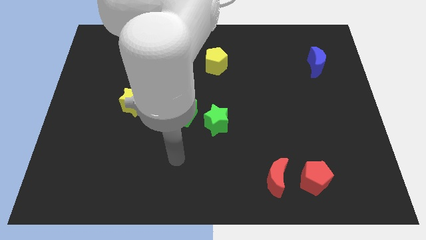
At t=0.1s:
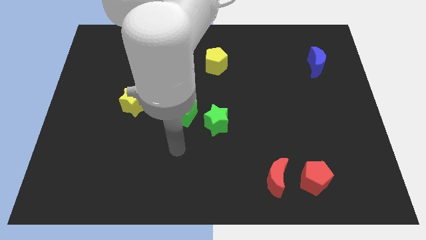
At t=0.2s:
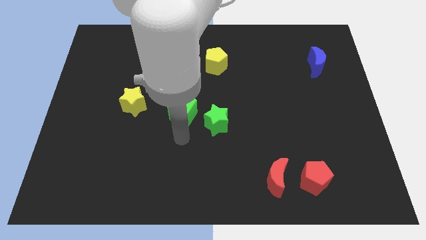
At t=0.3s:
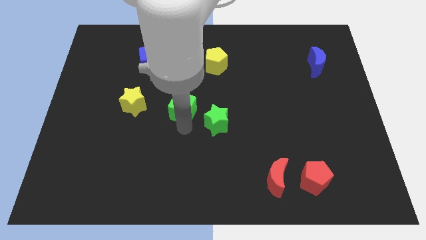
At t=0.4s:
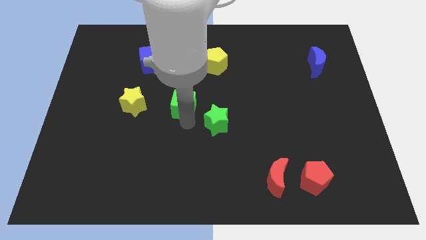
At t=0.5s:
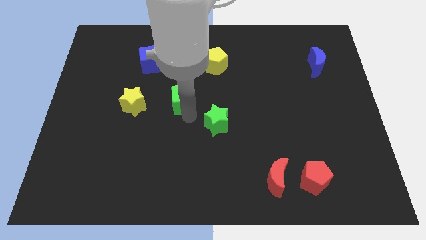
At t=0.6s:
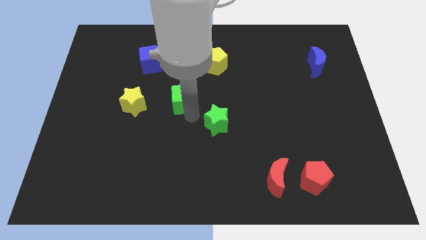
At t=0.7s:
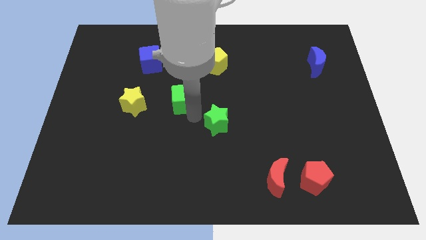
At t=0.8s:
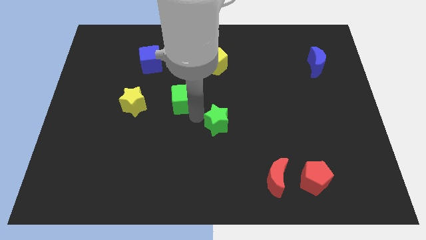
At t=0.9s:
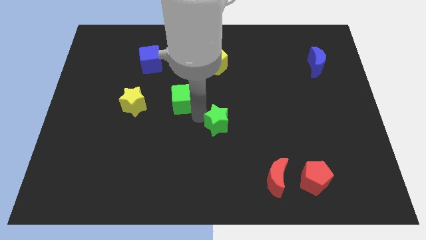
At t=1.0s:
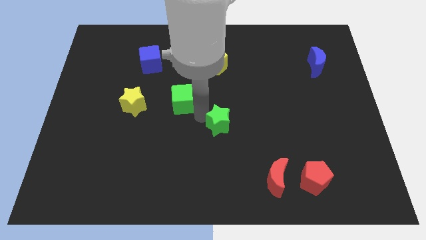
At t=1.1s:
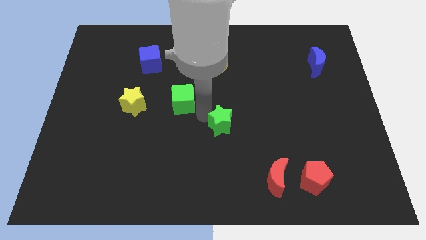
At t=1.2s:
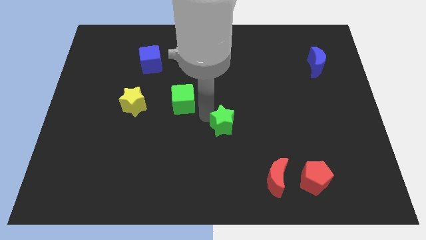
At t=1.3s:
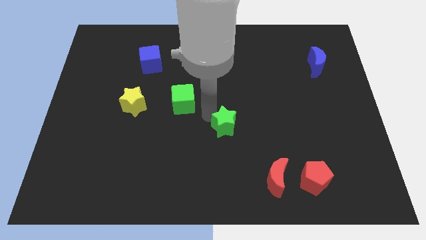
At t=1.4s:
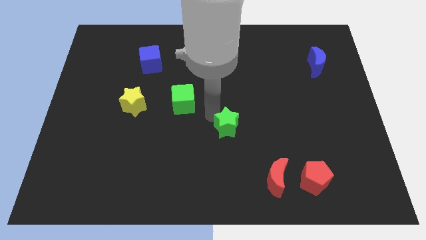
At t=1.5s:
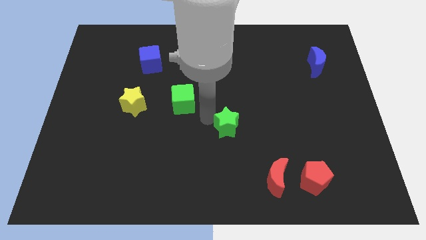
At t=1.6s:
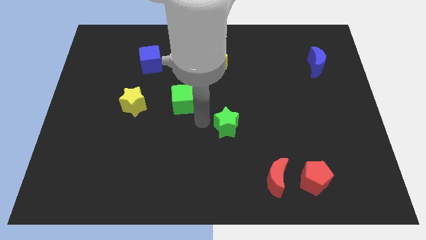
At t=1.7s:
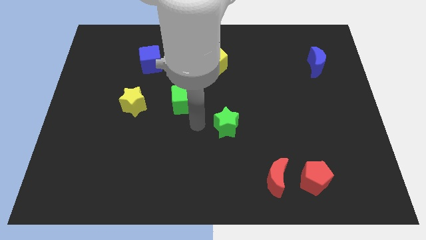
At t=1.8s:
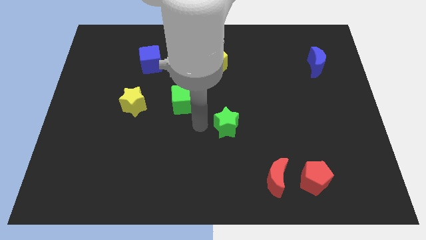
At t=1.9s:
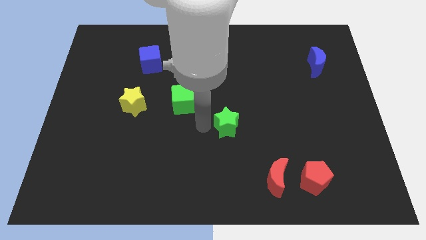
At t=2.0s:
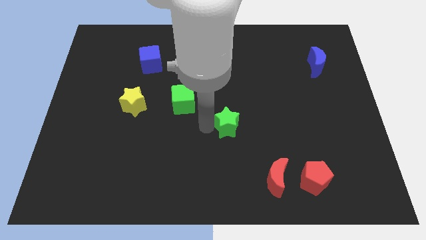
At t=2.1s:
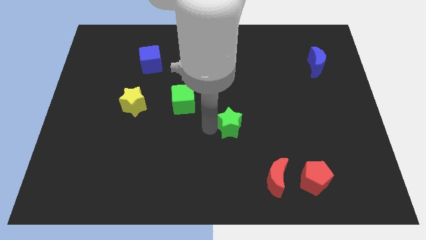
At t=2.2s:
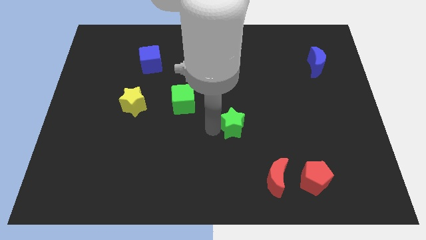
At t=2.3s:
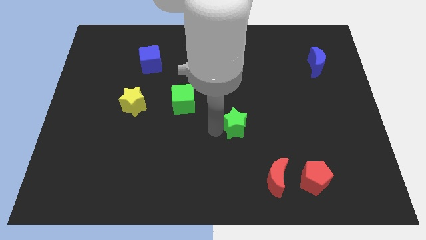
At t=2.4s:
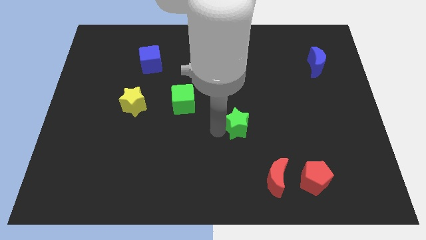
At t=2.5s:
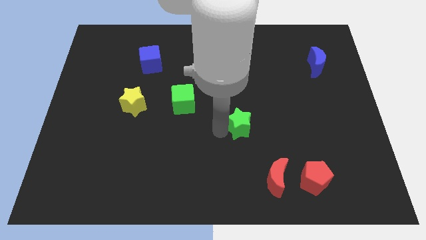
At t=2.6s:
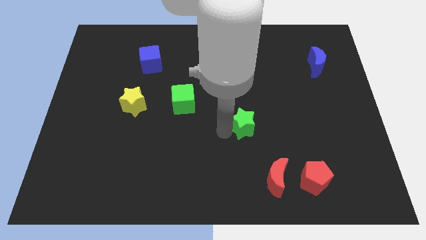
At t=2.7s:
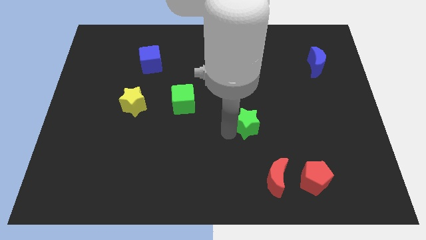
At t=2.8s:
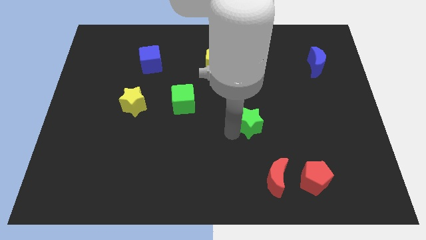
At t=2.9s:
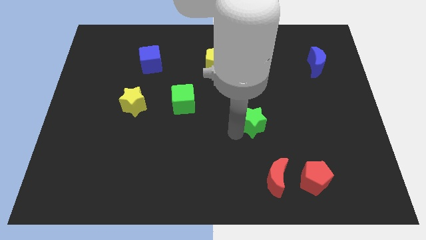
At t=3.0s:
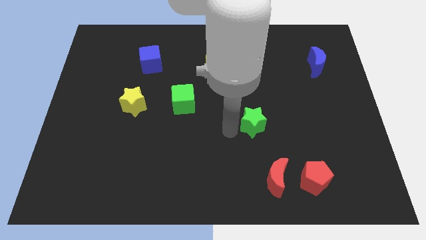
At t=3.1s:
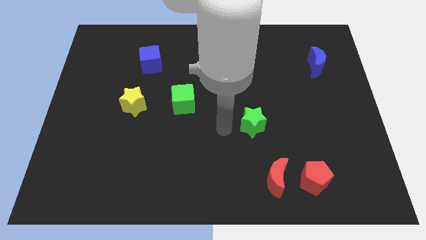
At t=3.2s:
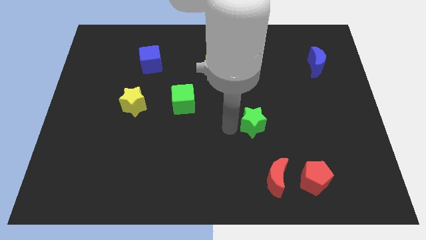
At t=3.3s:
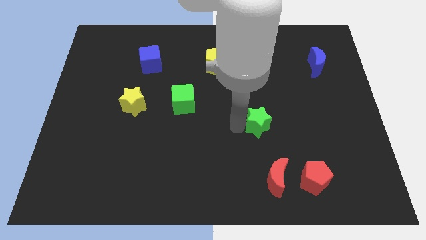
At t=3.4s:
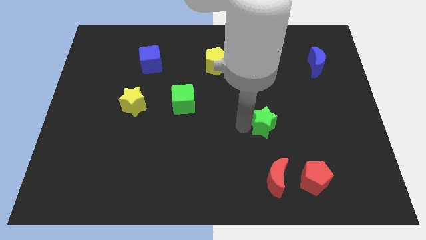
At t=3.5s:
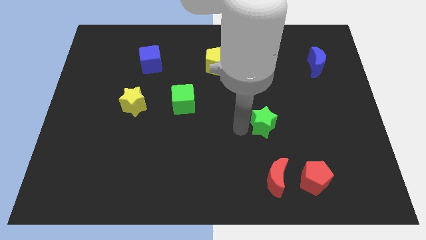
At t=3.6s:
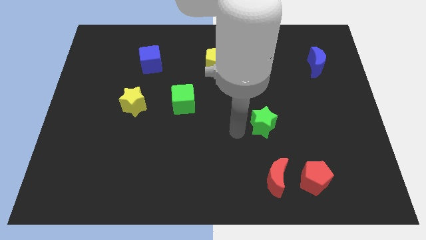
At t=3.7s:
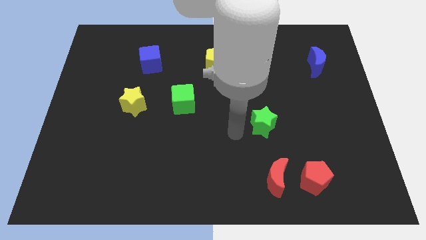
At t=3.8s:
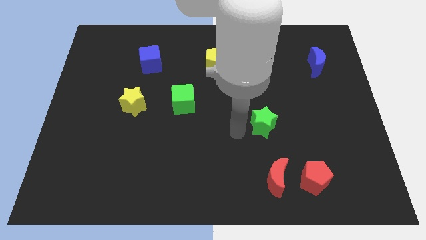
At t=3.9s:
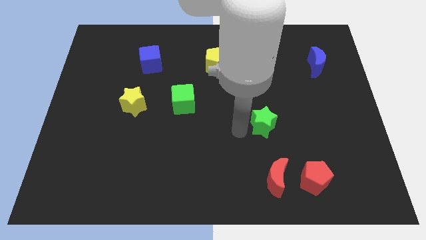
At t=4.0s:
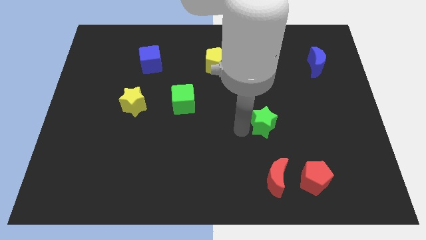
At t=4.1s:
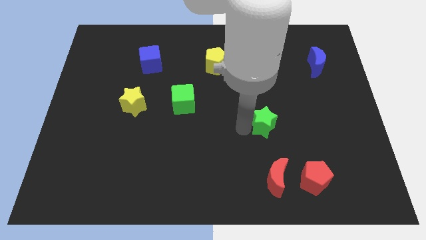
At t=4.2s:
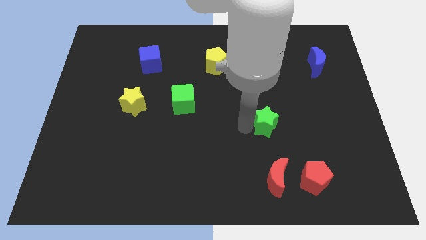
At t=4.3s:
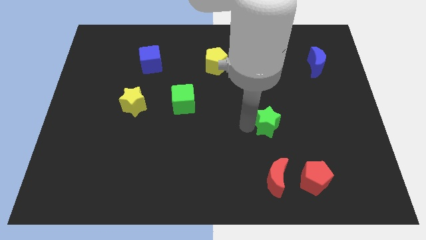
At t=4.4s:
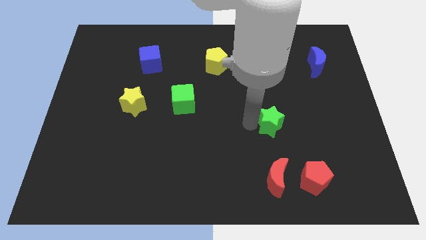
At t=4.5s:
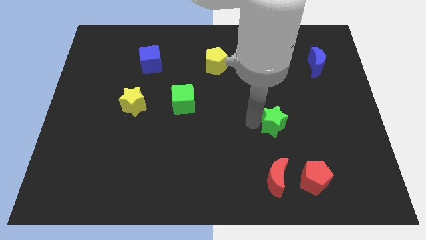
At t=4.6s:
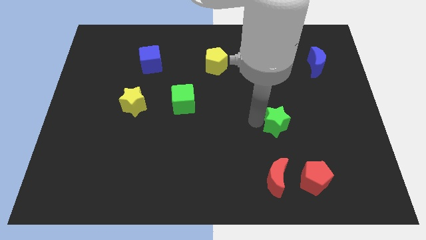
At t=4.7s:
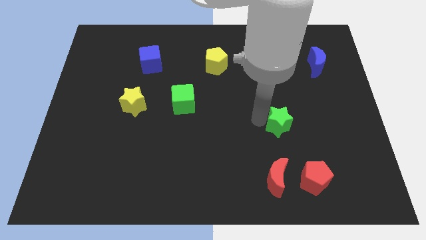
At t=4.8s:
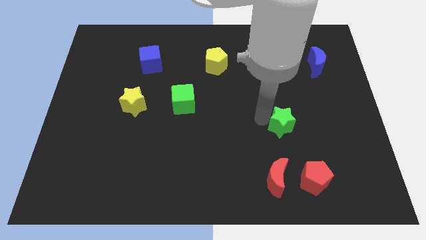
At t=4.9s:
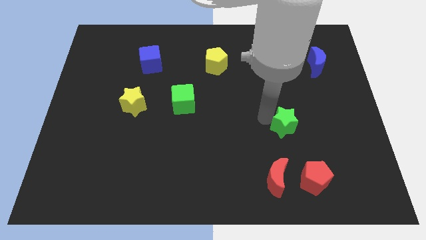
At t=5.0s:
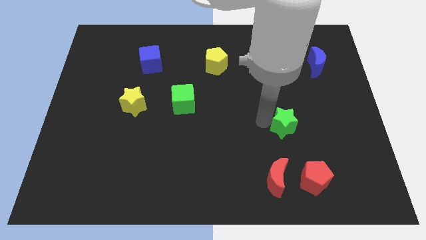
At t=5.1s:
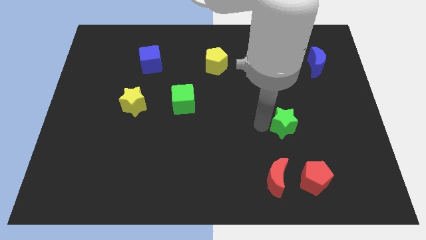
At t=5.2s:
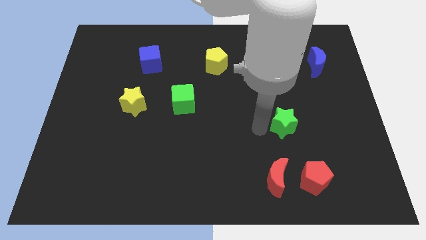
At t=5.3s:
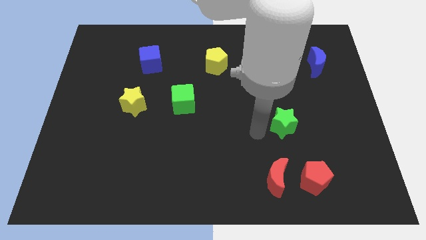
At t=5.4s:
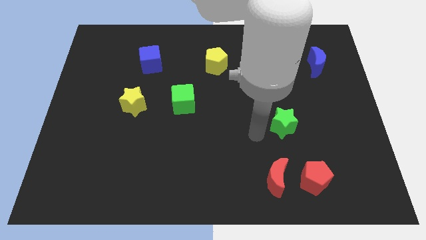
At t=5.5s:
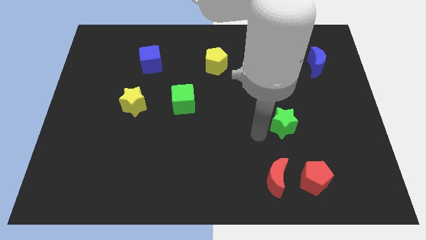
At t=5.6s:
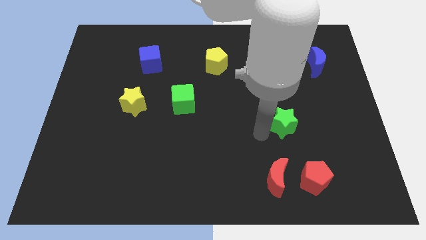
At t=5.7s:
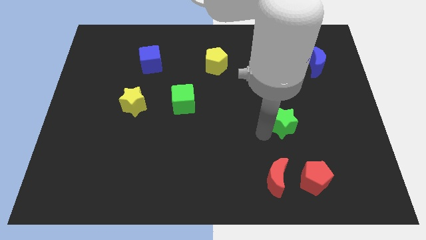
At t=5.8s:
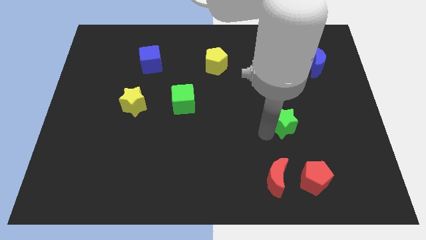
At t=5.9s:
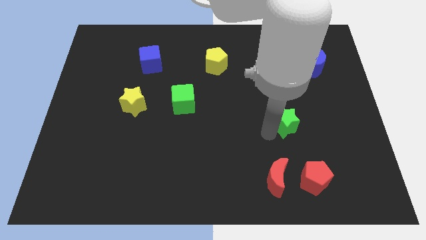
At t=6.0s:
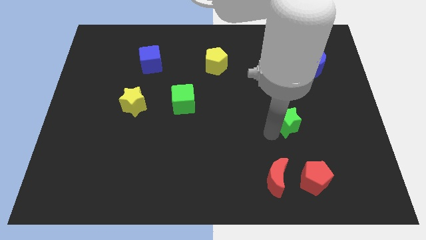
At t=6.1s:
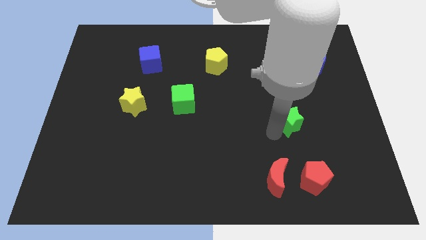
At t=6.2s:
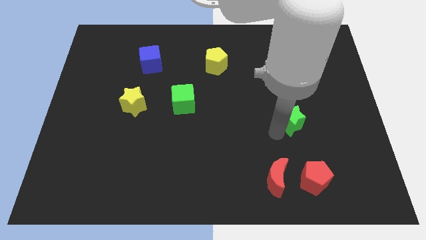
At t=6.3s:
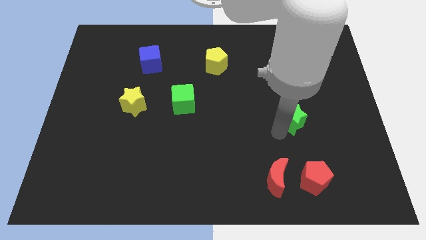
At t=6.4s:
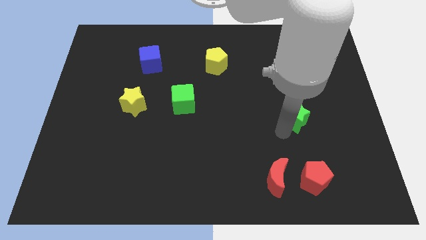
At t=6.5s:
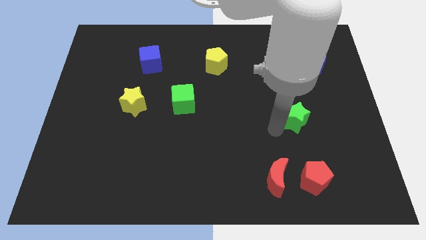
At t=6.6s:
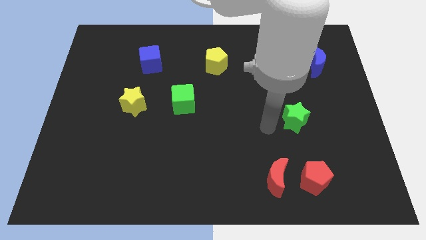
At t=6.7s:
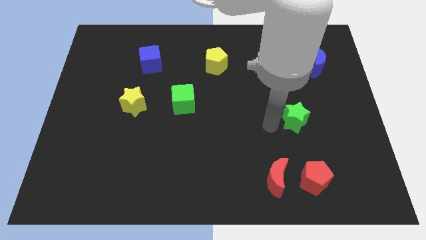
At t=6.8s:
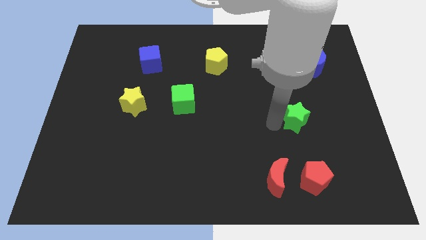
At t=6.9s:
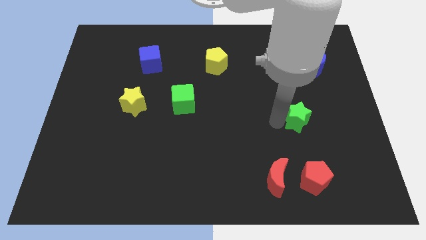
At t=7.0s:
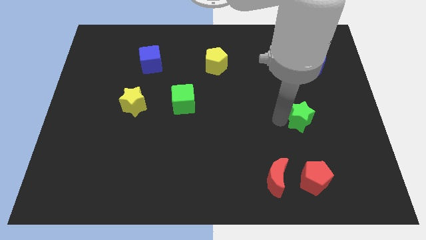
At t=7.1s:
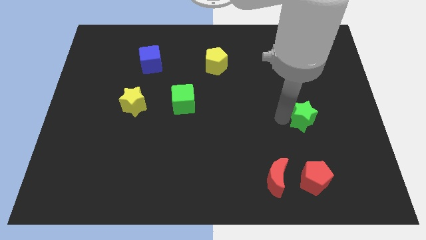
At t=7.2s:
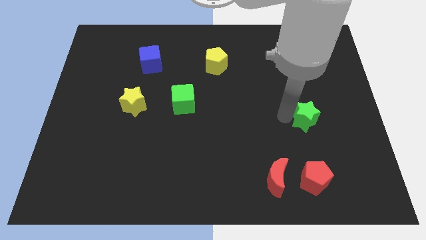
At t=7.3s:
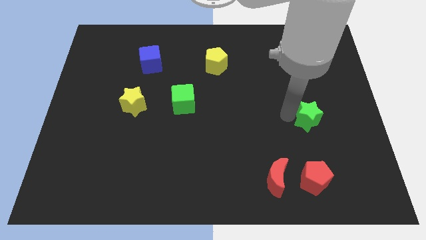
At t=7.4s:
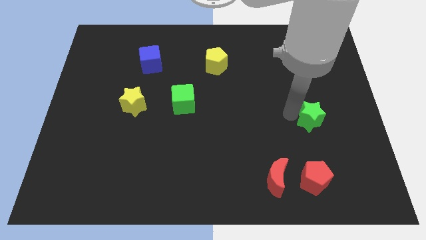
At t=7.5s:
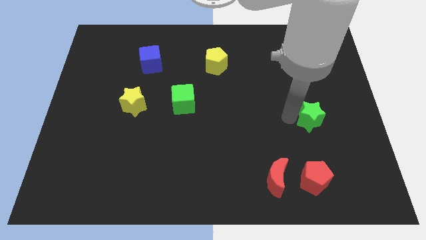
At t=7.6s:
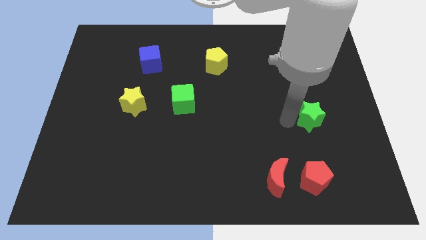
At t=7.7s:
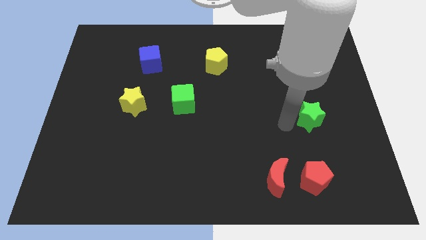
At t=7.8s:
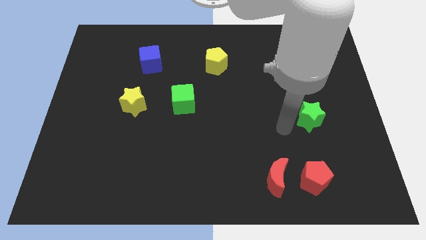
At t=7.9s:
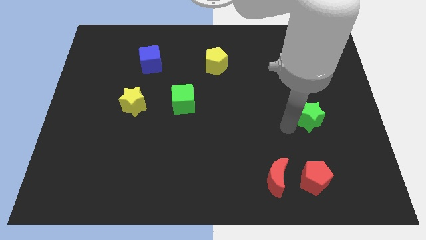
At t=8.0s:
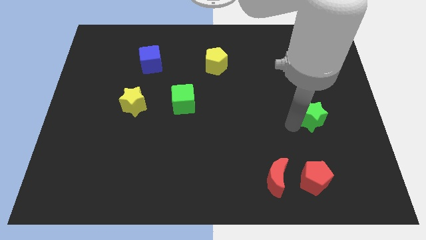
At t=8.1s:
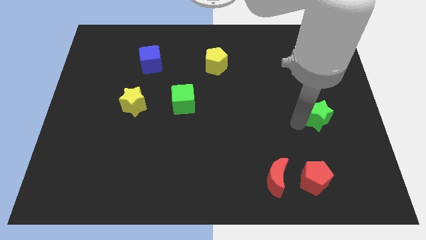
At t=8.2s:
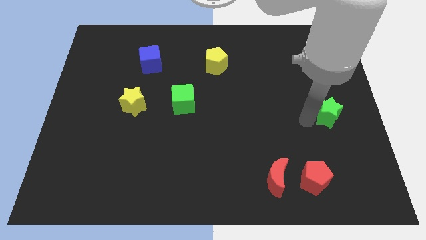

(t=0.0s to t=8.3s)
put the green star to the right side
